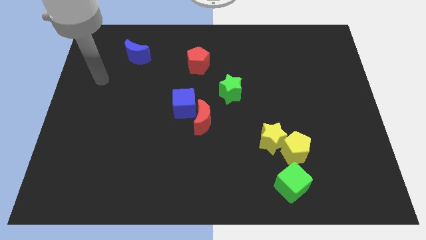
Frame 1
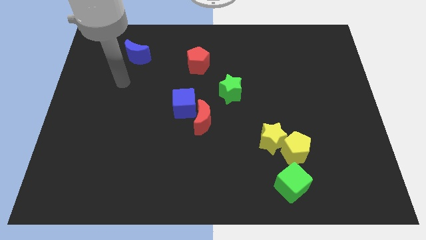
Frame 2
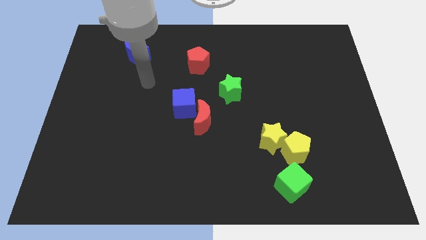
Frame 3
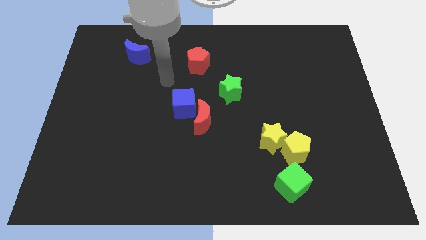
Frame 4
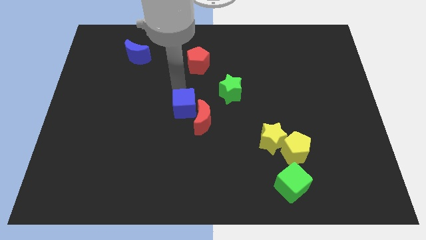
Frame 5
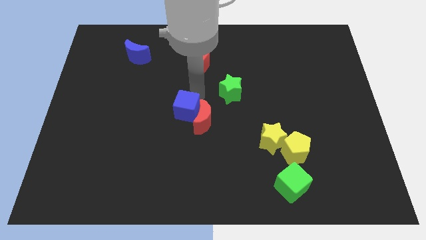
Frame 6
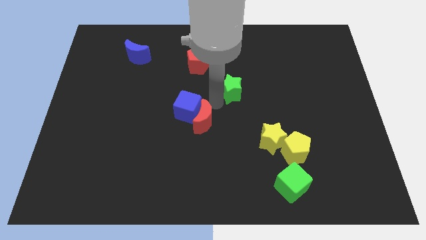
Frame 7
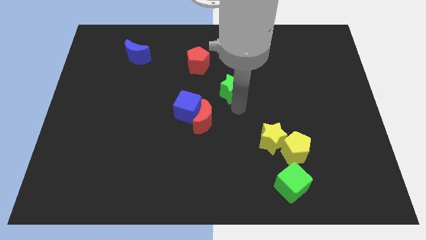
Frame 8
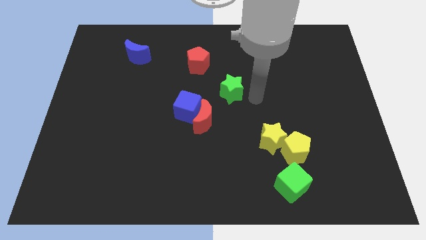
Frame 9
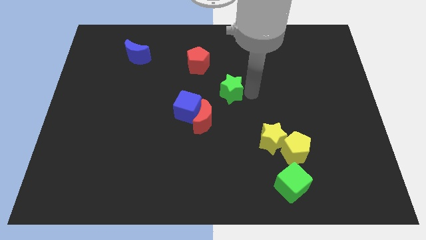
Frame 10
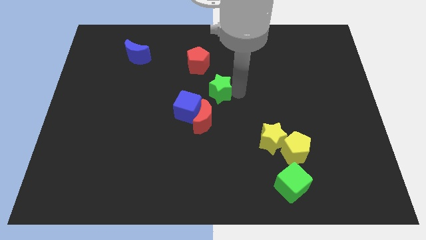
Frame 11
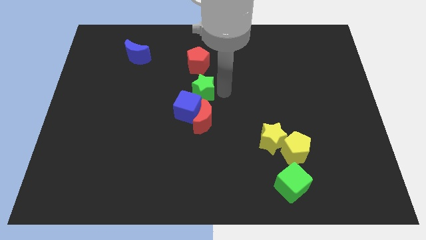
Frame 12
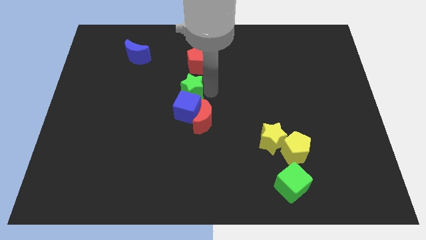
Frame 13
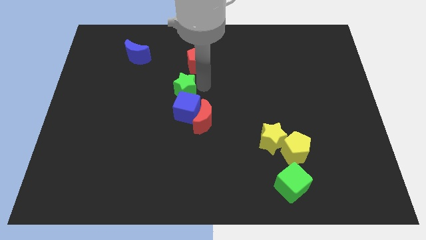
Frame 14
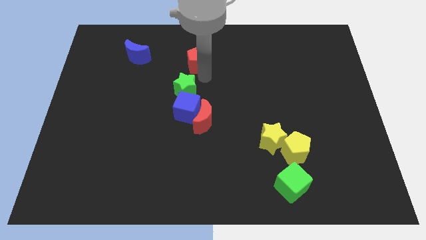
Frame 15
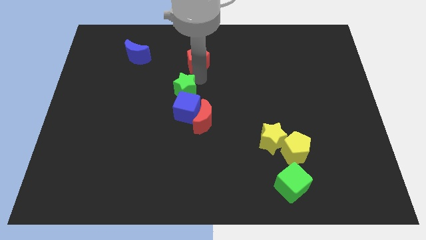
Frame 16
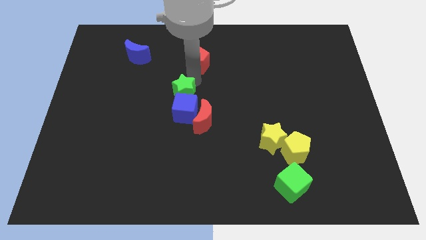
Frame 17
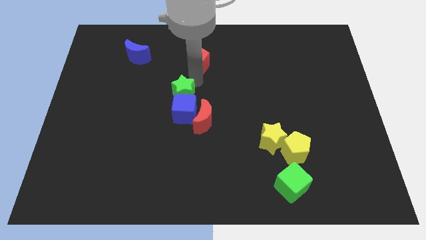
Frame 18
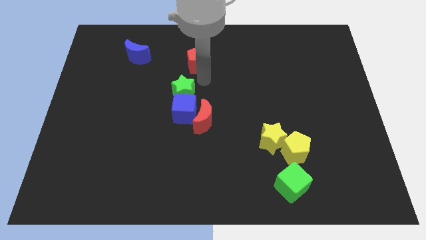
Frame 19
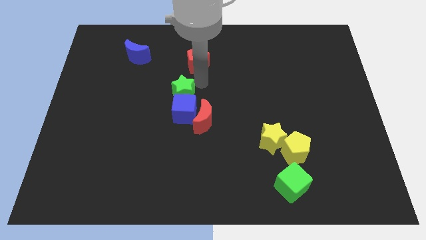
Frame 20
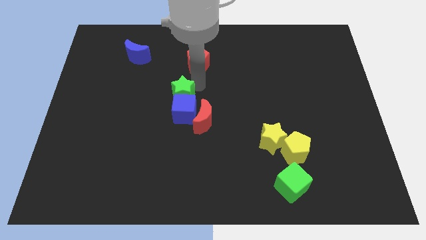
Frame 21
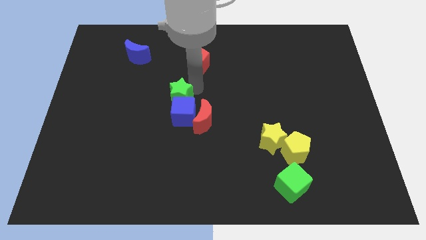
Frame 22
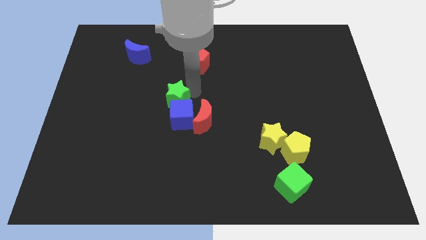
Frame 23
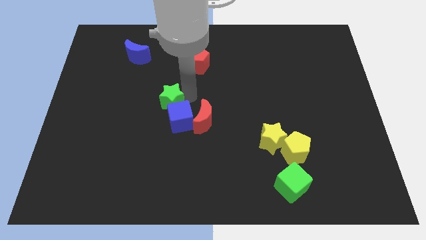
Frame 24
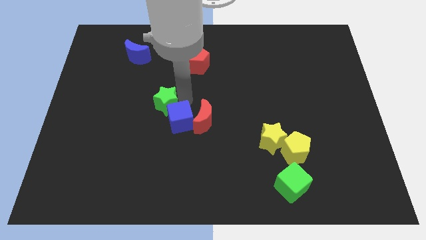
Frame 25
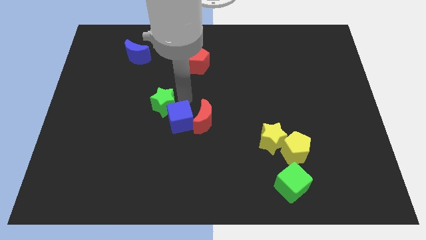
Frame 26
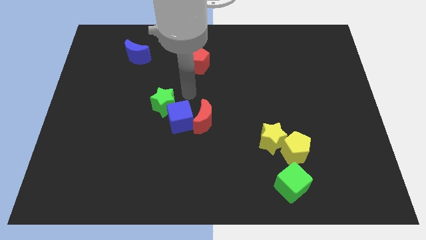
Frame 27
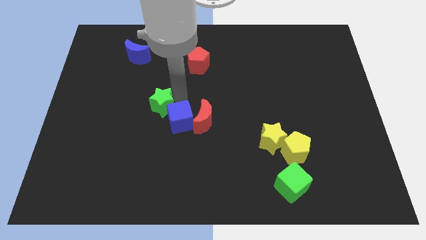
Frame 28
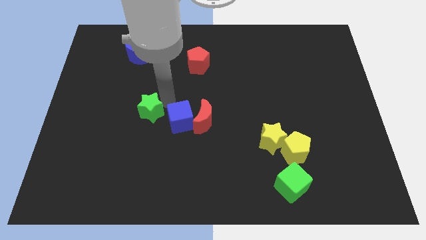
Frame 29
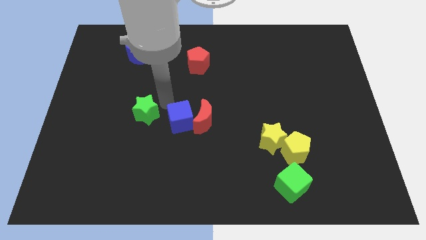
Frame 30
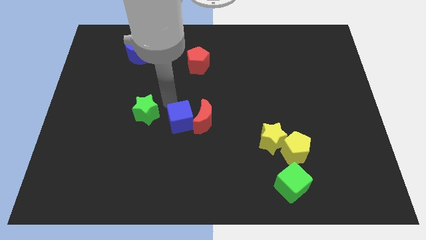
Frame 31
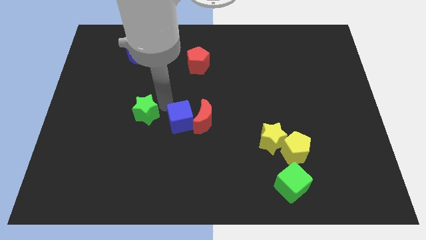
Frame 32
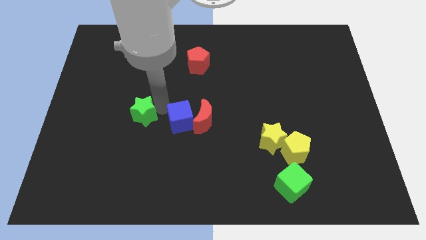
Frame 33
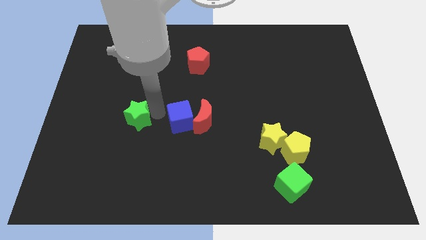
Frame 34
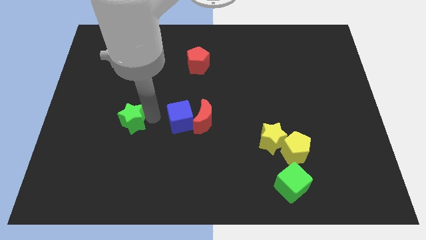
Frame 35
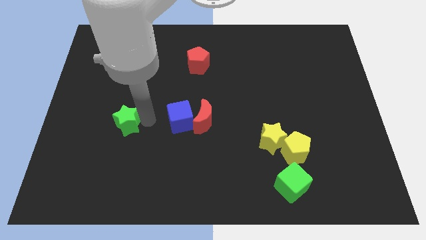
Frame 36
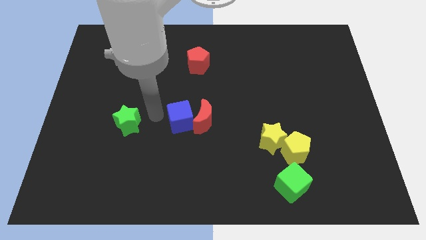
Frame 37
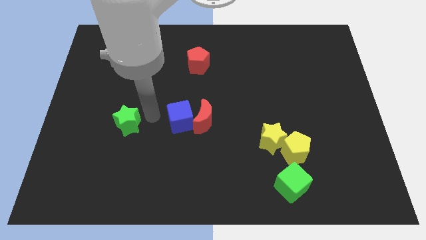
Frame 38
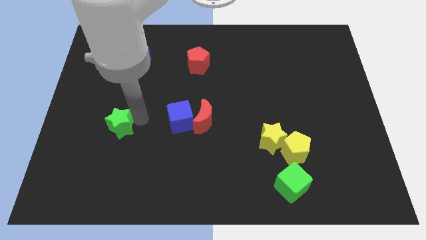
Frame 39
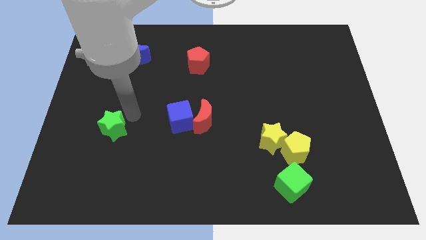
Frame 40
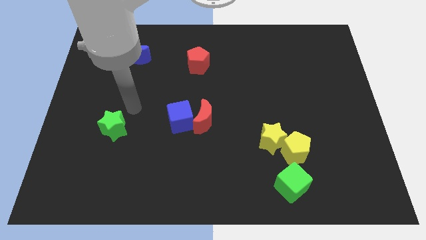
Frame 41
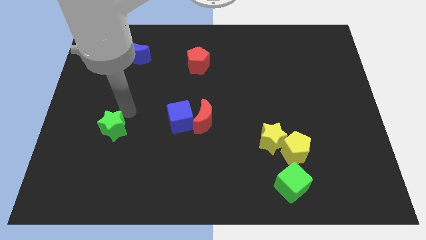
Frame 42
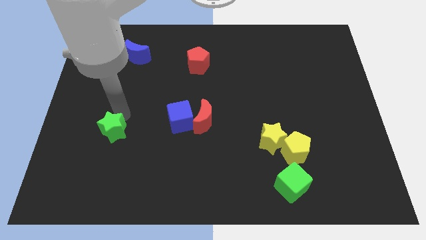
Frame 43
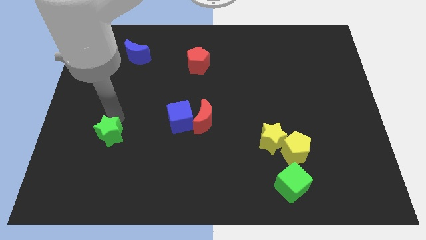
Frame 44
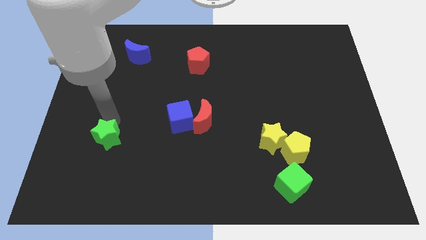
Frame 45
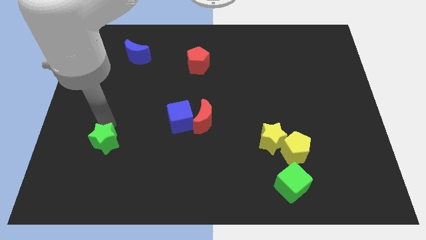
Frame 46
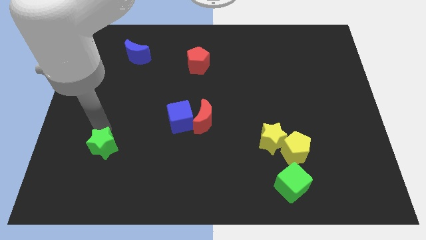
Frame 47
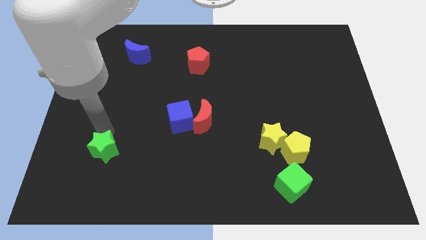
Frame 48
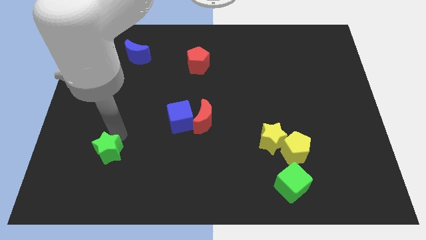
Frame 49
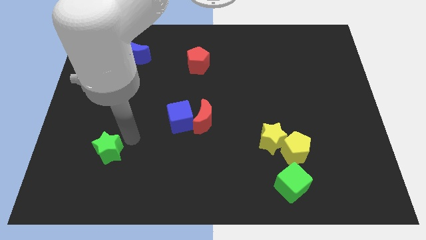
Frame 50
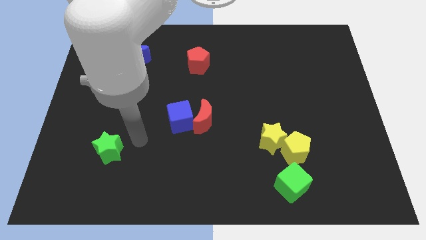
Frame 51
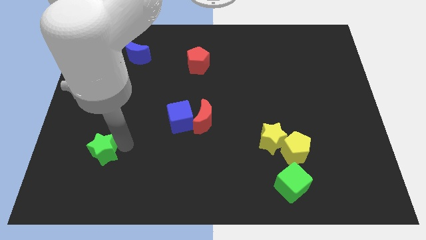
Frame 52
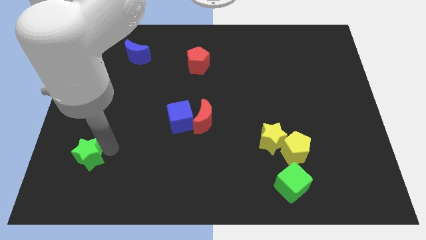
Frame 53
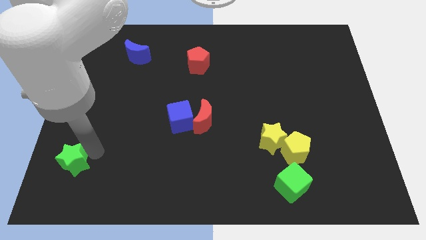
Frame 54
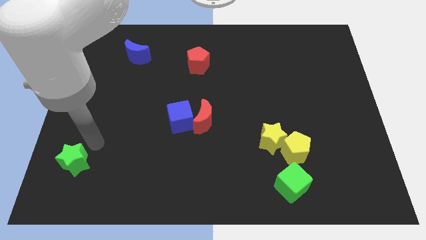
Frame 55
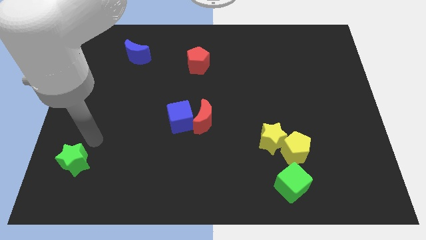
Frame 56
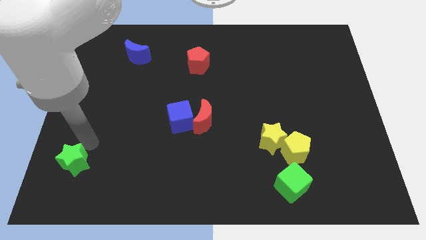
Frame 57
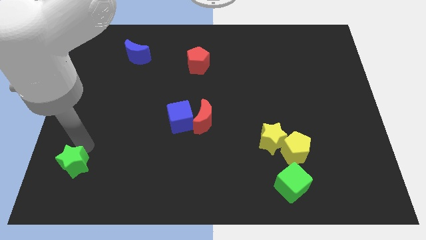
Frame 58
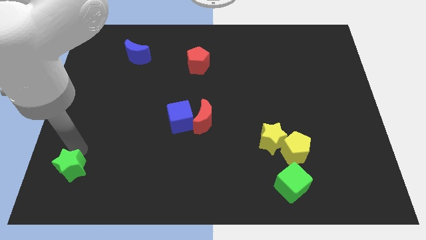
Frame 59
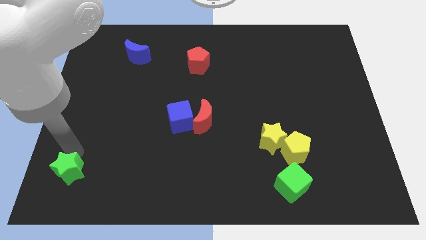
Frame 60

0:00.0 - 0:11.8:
push the green star to the bottom left of the board

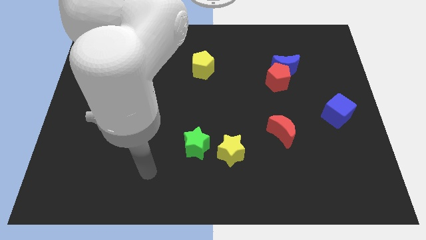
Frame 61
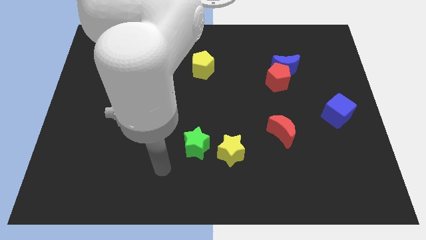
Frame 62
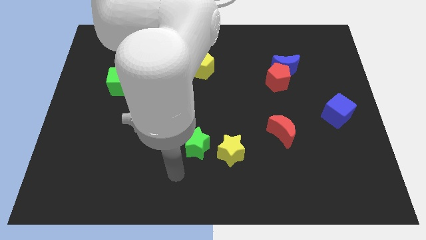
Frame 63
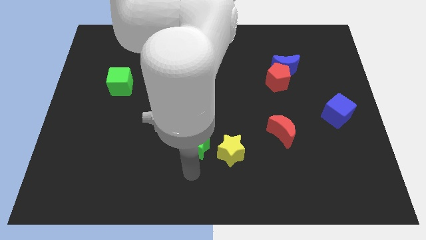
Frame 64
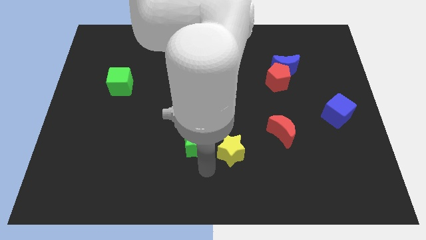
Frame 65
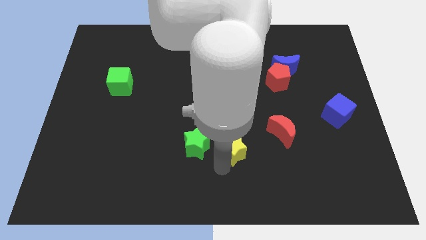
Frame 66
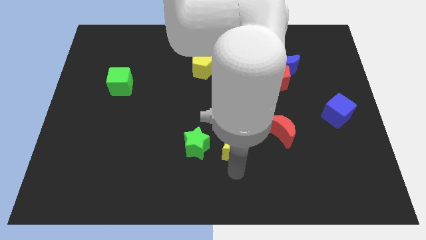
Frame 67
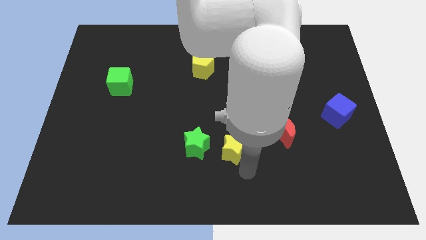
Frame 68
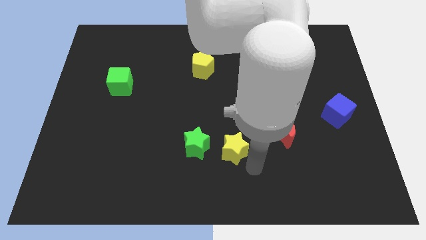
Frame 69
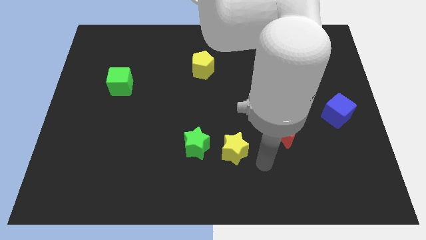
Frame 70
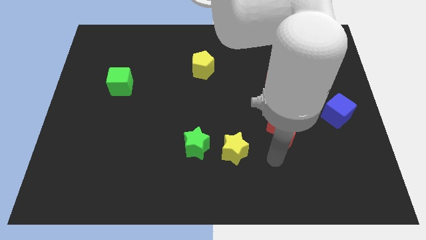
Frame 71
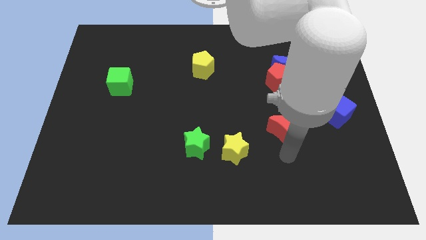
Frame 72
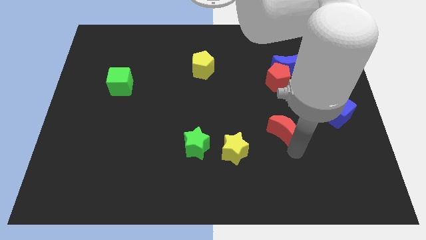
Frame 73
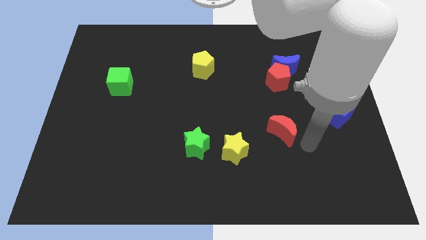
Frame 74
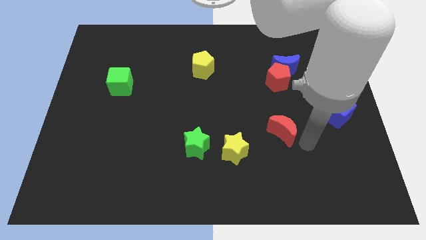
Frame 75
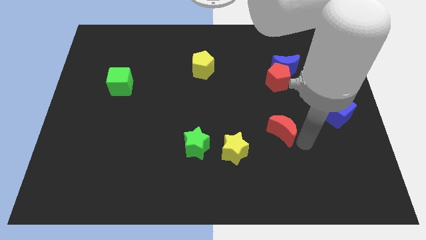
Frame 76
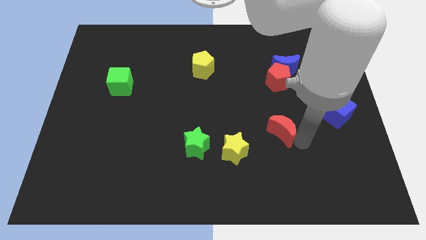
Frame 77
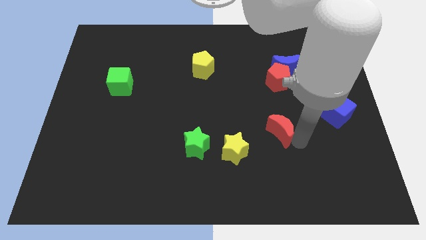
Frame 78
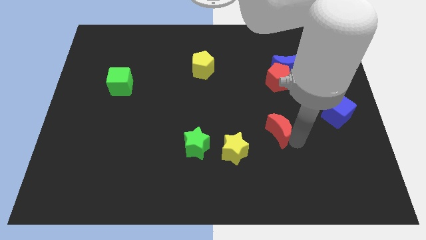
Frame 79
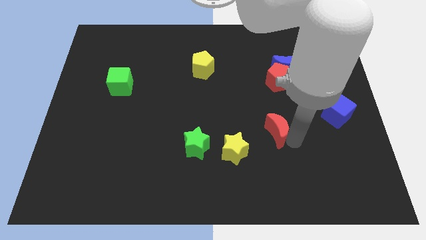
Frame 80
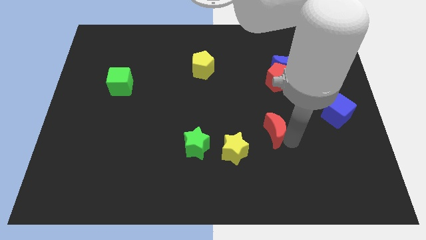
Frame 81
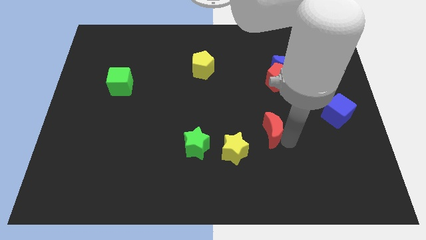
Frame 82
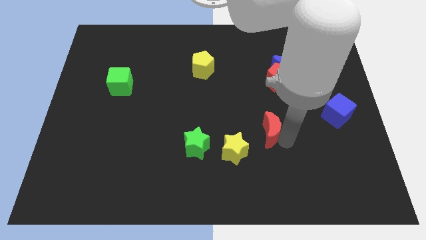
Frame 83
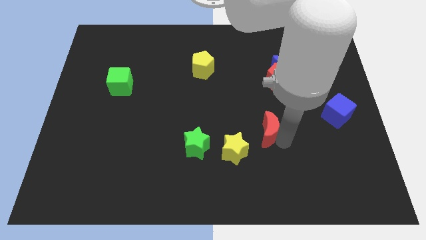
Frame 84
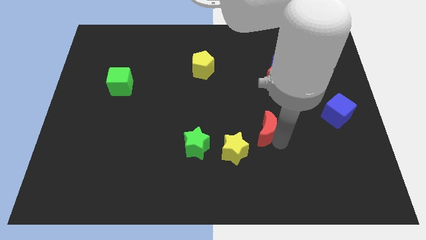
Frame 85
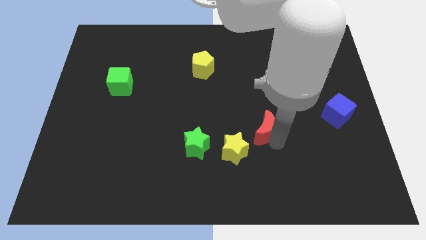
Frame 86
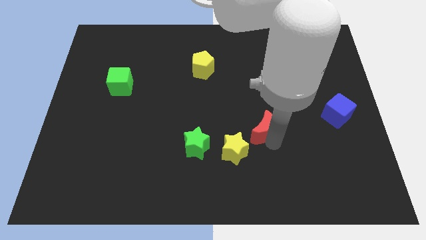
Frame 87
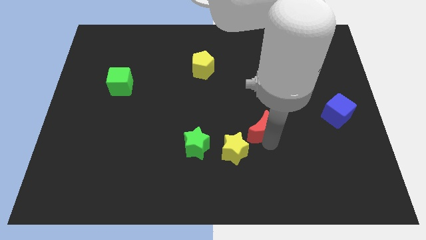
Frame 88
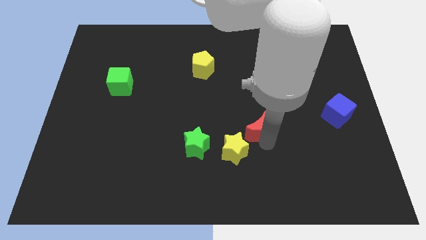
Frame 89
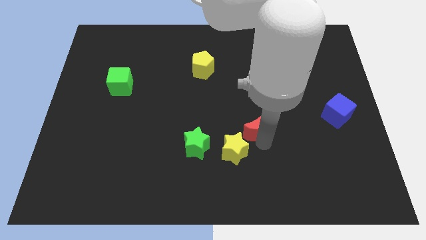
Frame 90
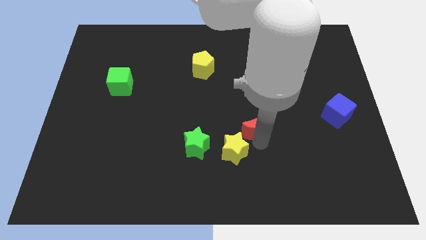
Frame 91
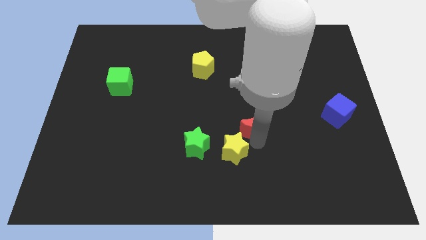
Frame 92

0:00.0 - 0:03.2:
slide the red moon to the middle
